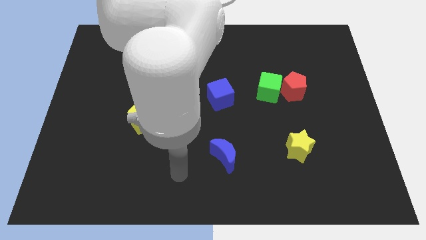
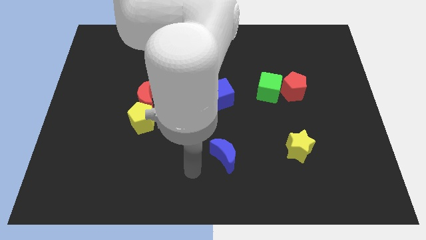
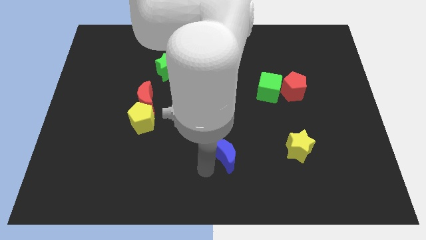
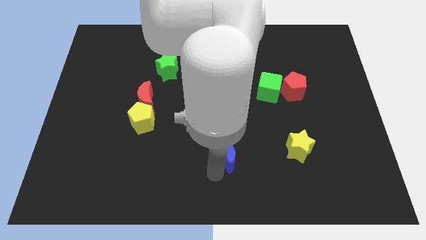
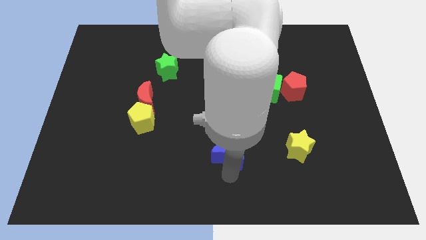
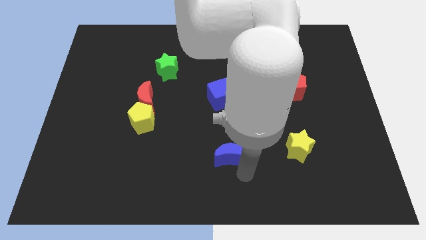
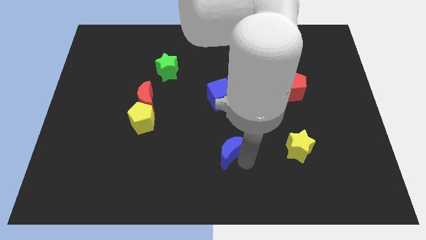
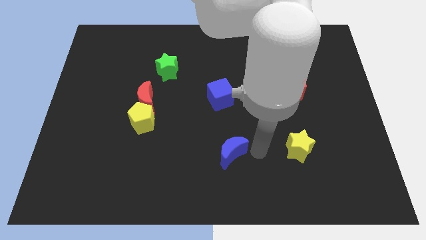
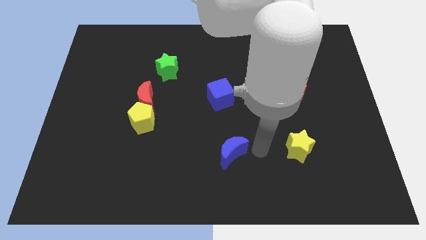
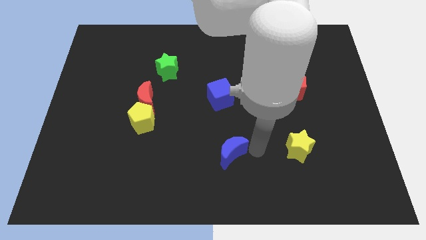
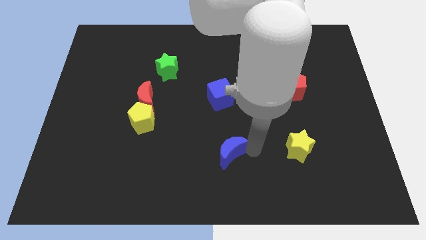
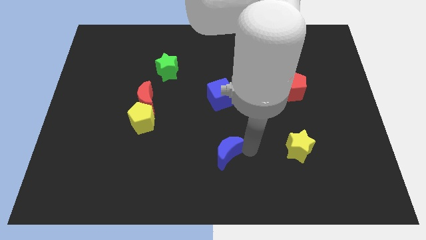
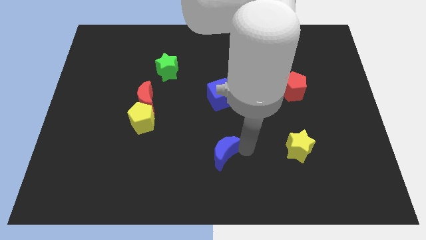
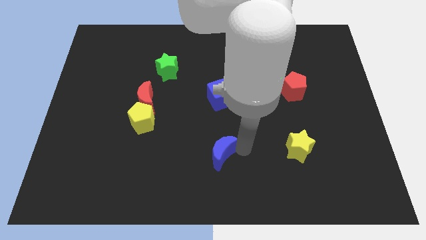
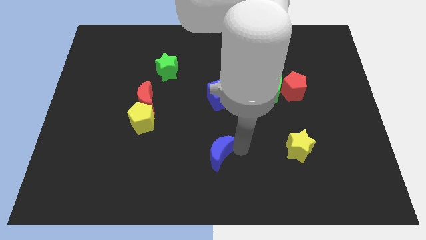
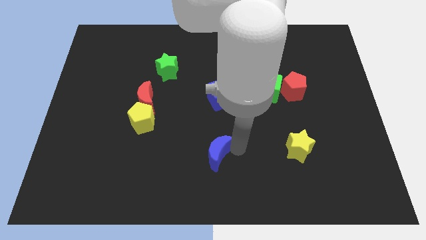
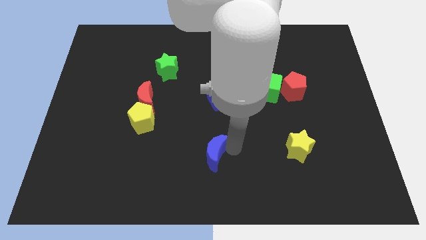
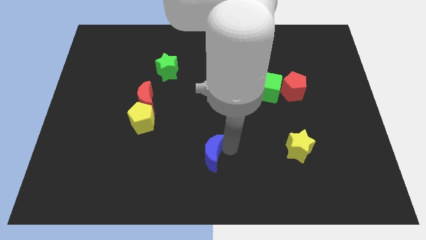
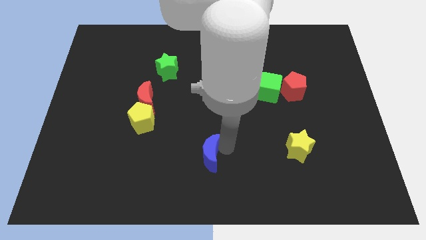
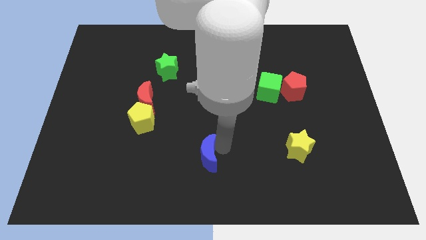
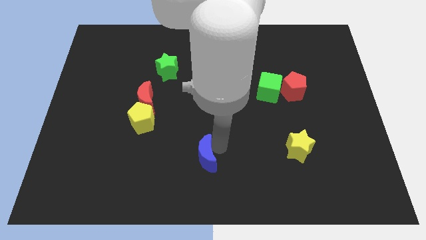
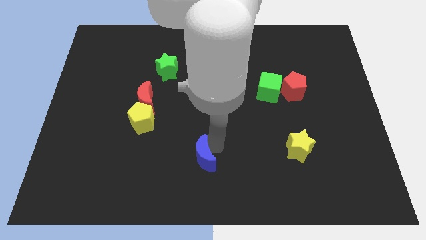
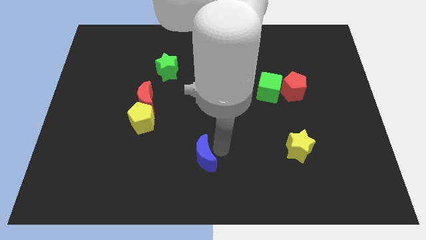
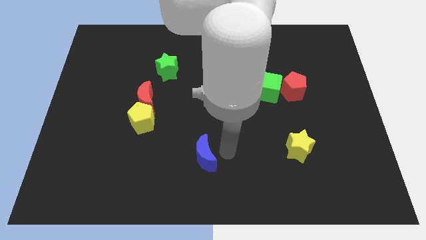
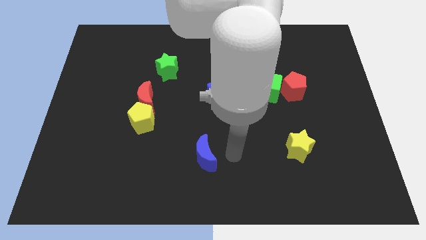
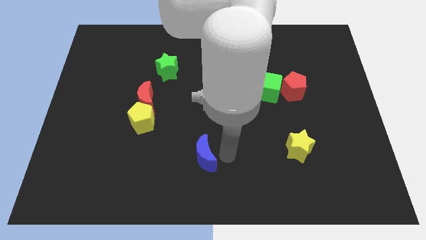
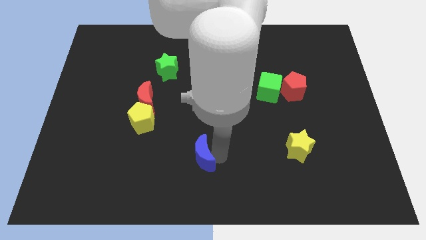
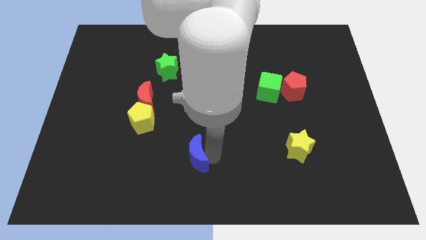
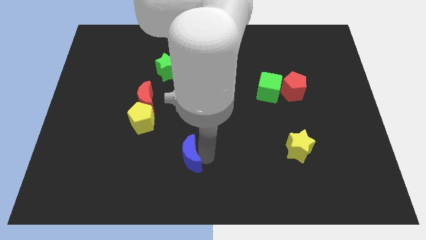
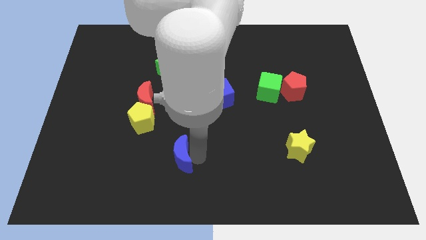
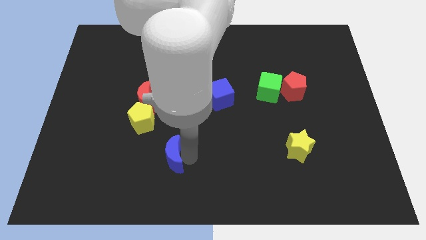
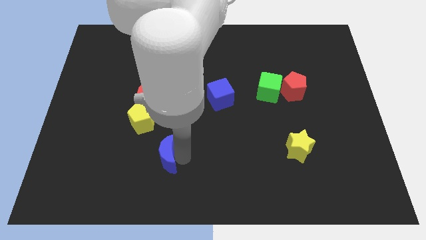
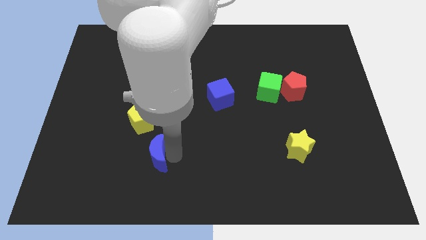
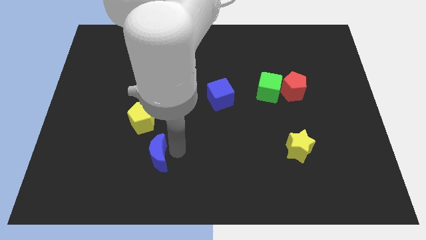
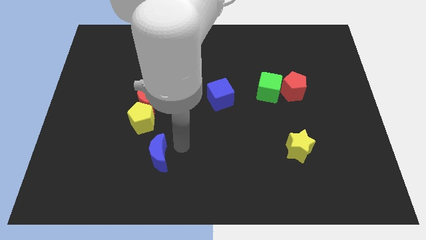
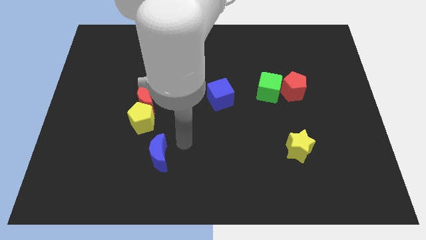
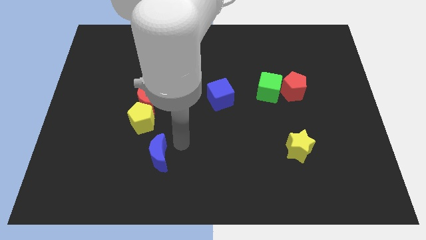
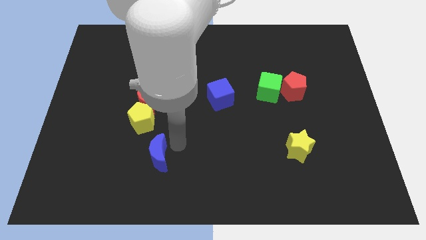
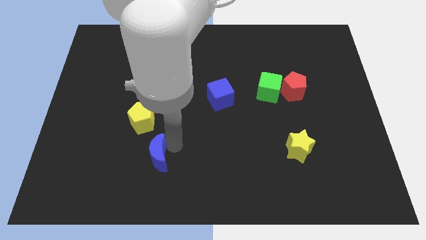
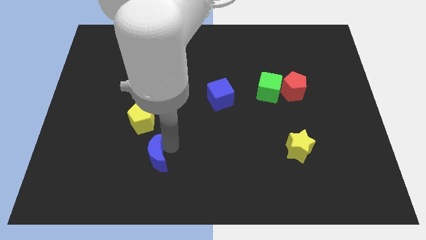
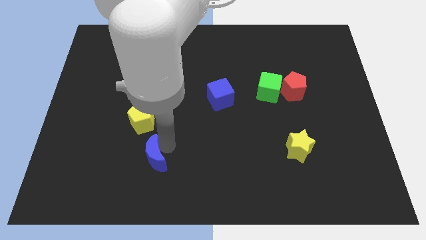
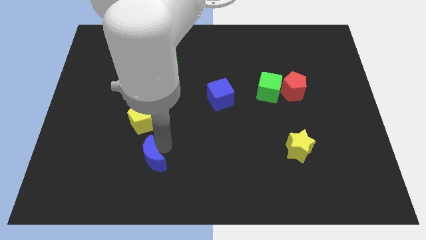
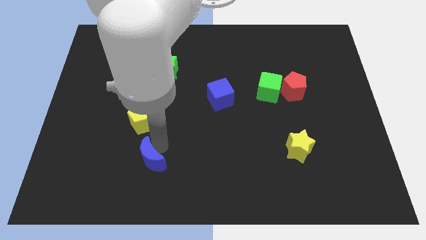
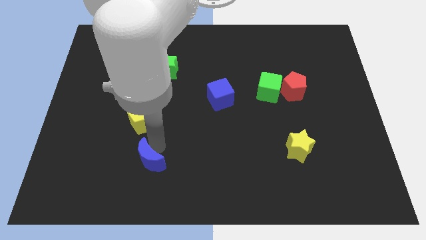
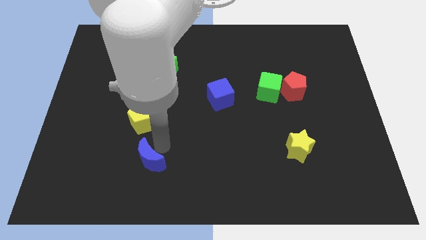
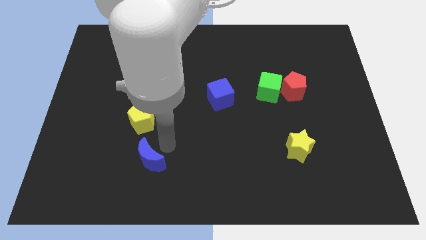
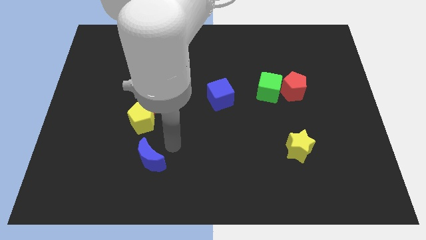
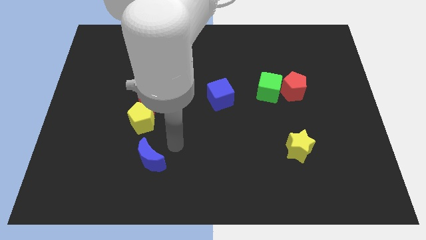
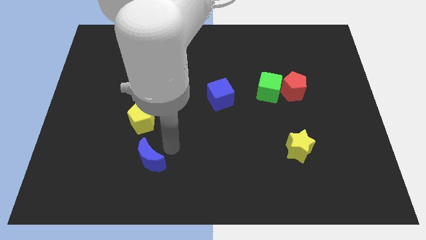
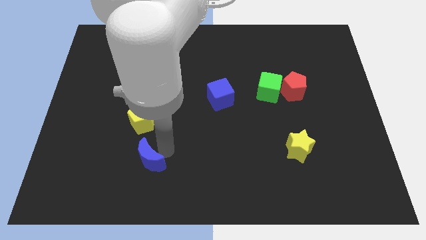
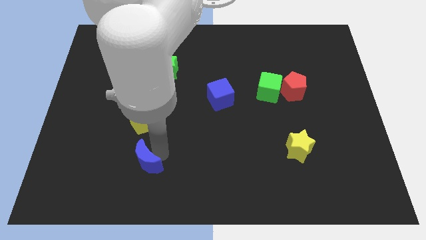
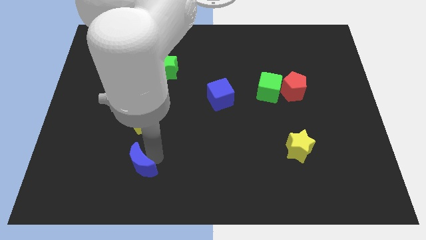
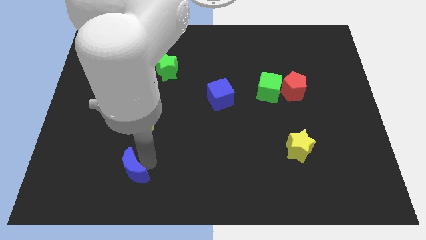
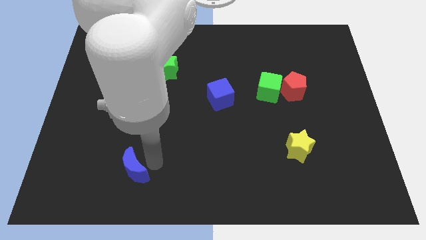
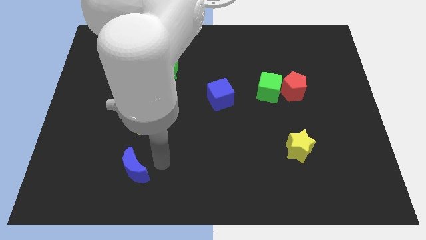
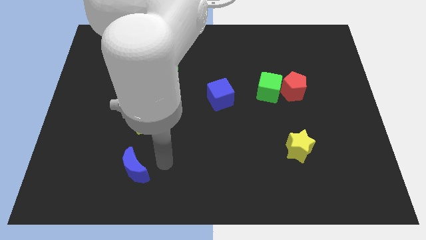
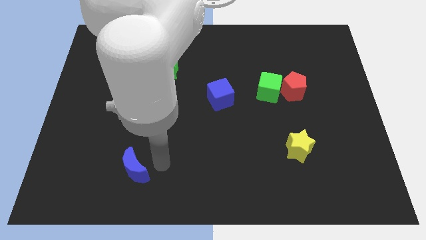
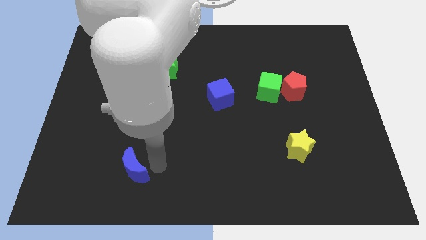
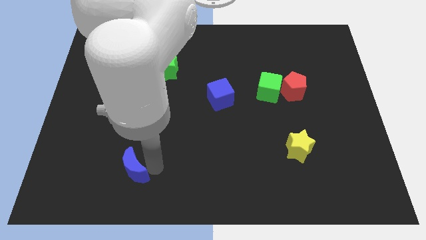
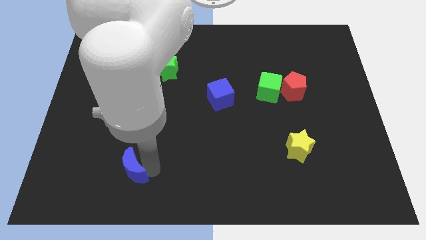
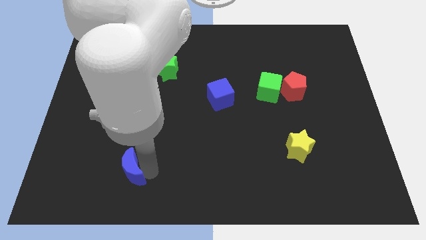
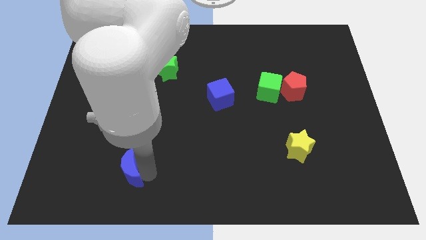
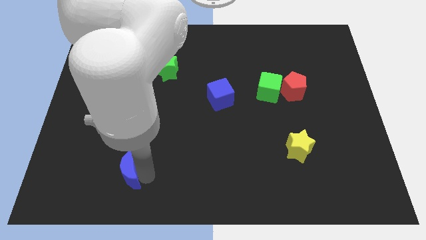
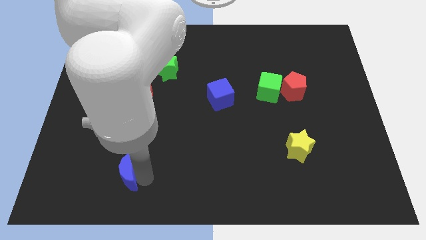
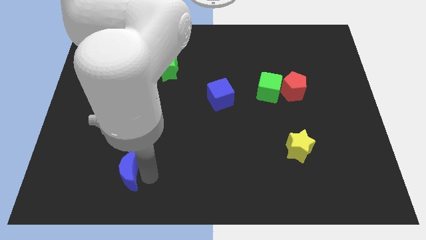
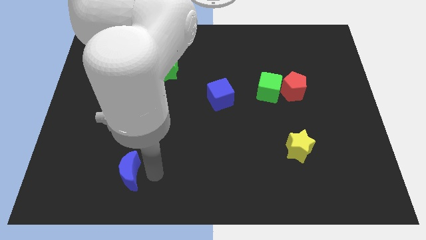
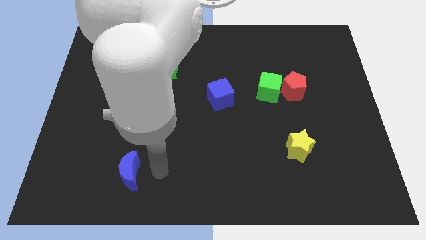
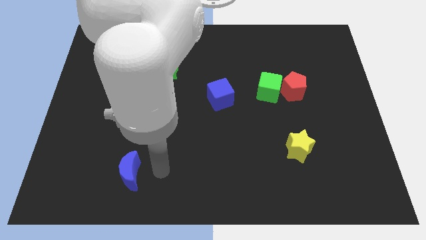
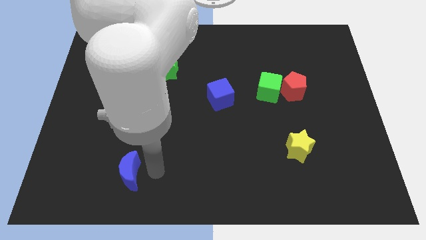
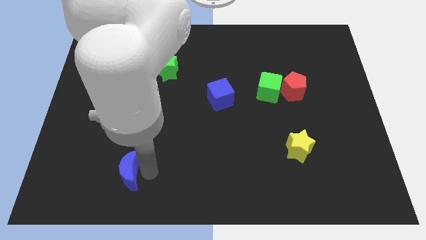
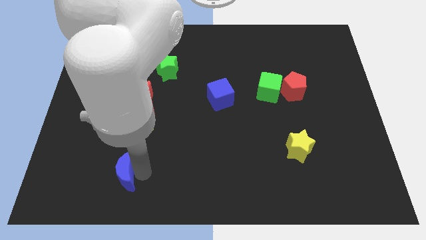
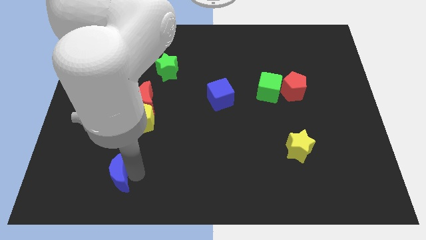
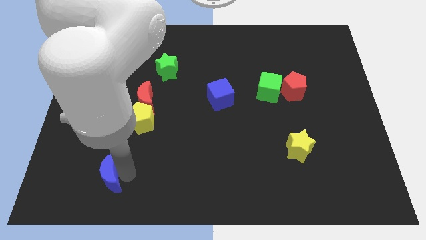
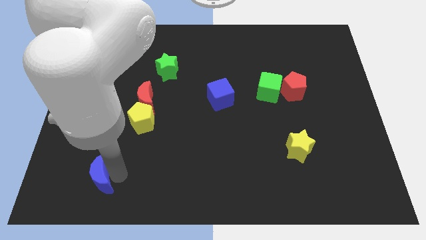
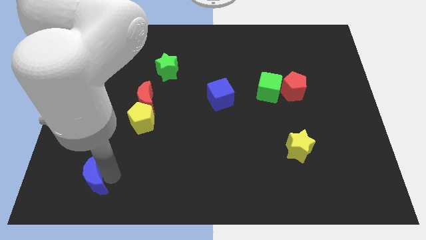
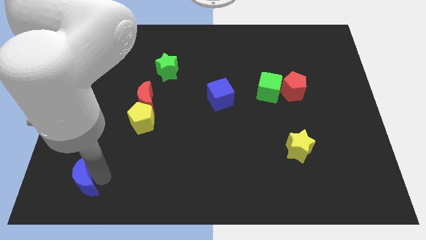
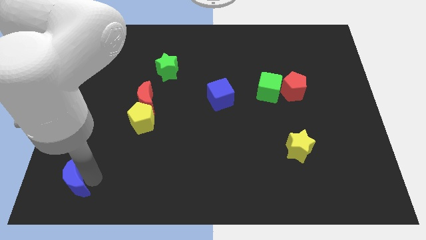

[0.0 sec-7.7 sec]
push the blue moon to the bottom left
